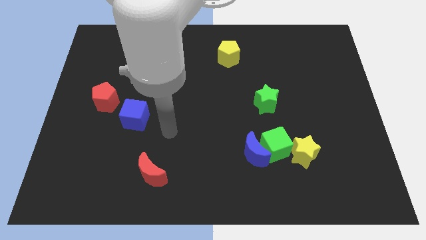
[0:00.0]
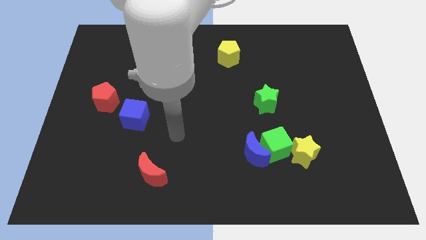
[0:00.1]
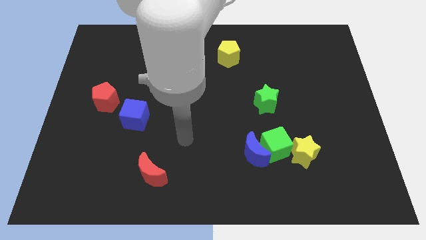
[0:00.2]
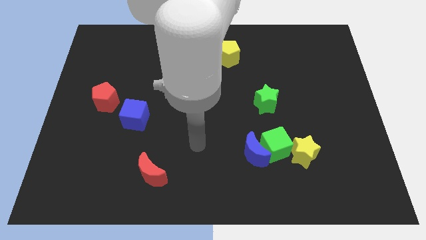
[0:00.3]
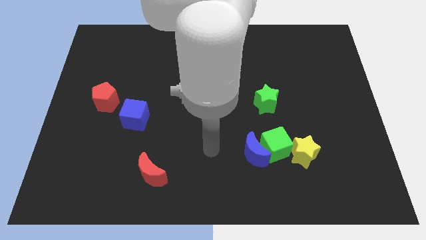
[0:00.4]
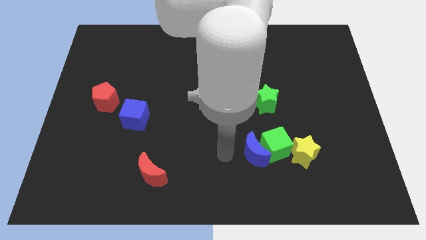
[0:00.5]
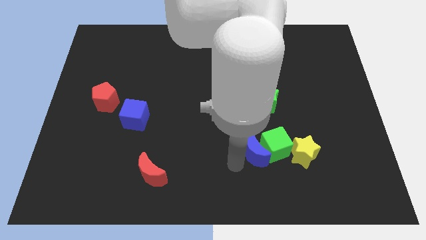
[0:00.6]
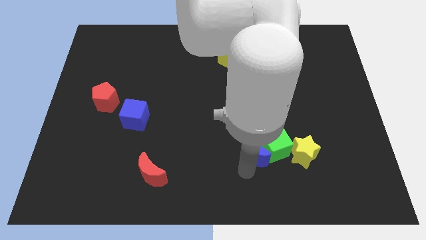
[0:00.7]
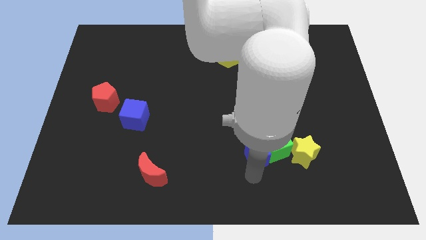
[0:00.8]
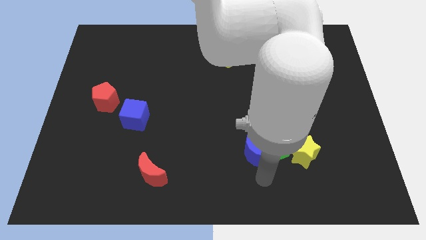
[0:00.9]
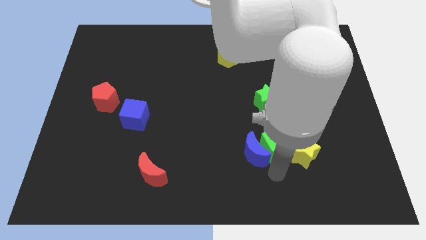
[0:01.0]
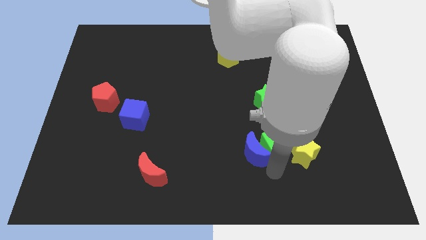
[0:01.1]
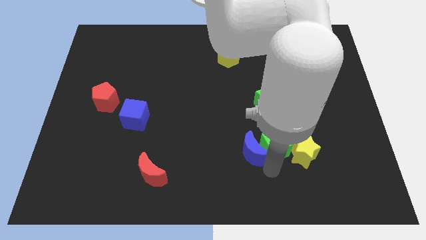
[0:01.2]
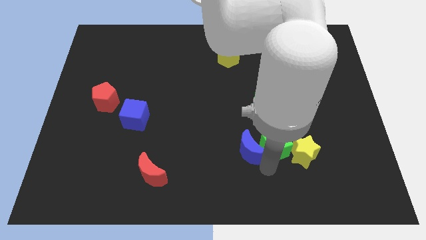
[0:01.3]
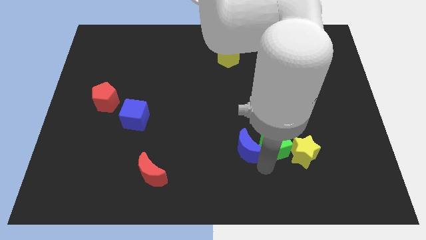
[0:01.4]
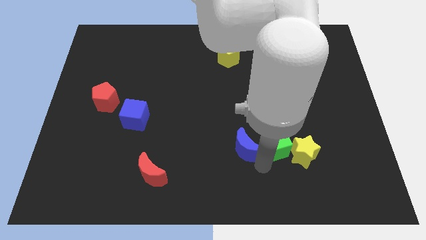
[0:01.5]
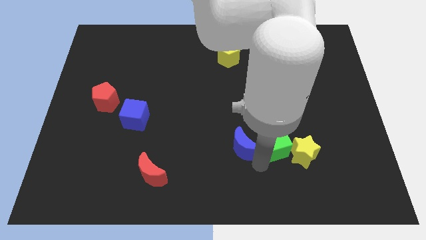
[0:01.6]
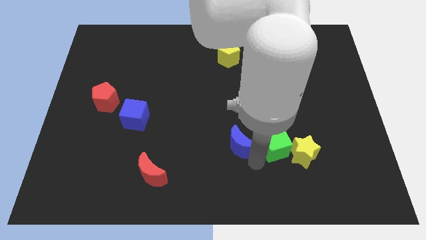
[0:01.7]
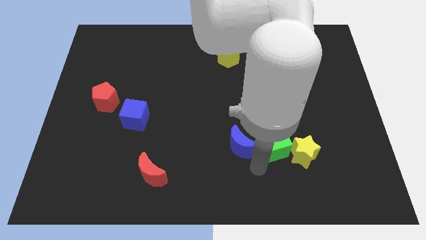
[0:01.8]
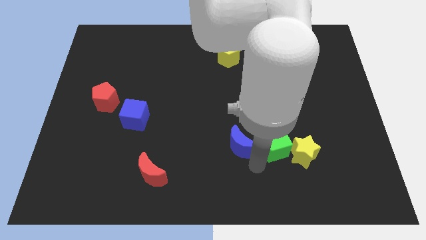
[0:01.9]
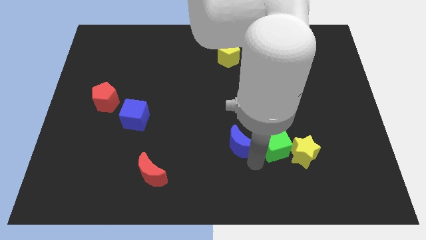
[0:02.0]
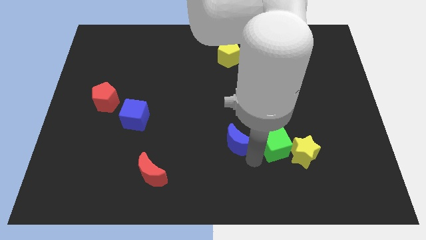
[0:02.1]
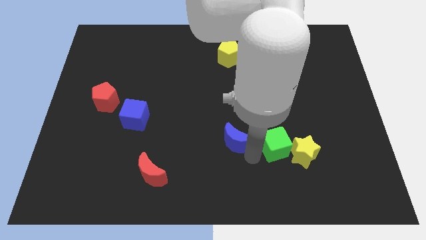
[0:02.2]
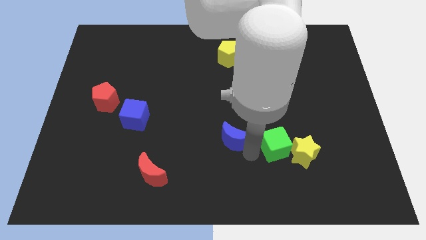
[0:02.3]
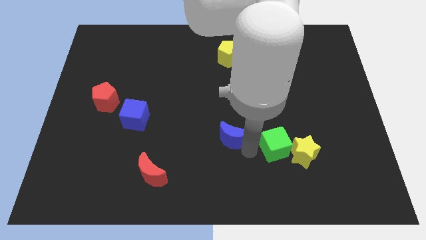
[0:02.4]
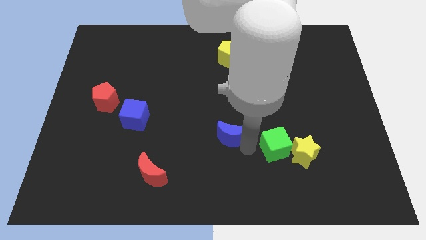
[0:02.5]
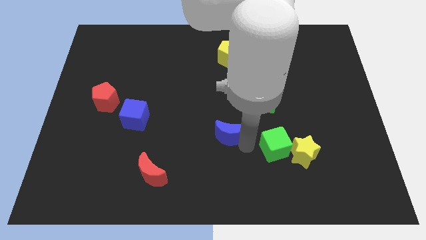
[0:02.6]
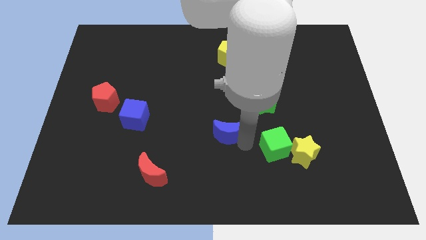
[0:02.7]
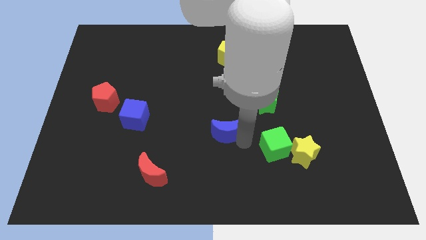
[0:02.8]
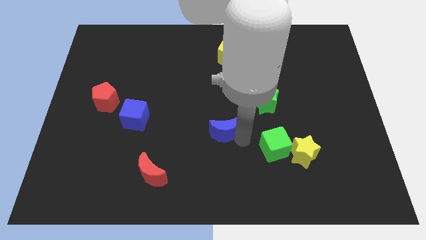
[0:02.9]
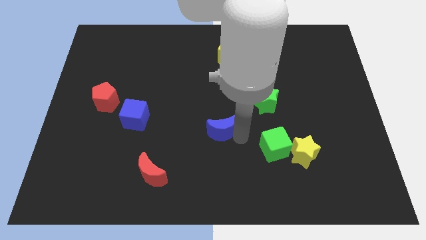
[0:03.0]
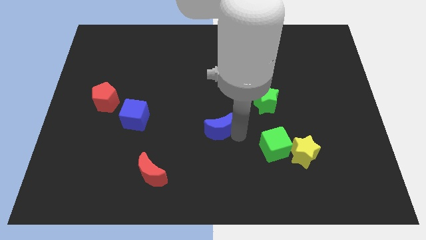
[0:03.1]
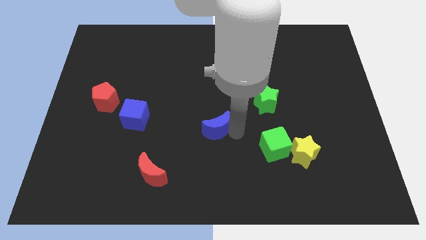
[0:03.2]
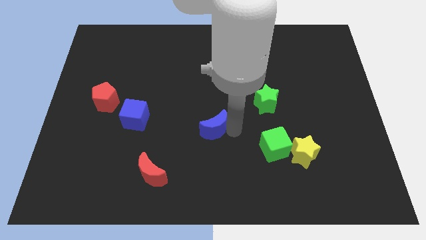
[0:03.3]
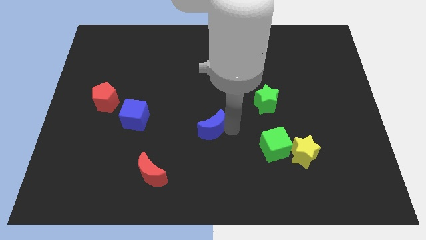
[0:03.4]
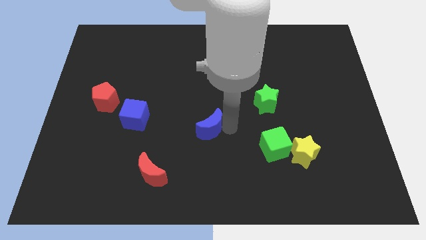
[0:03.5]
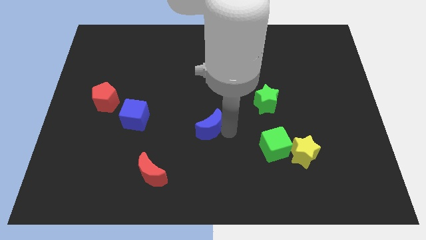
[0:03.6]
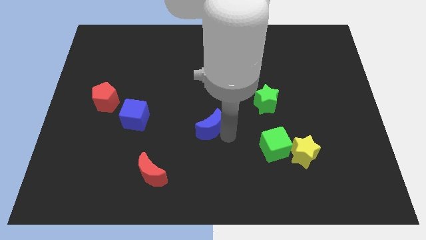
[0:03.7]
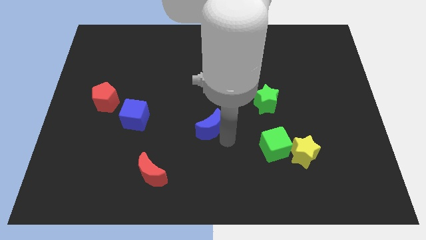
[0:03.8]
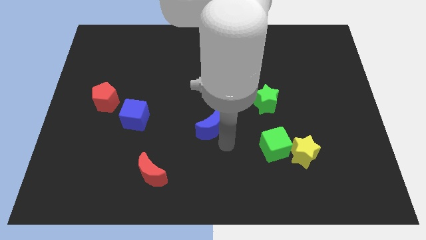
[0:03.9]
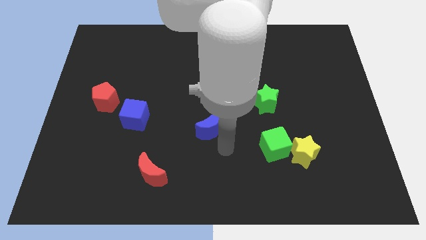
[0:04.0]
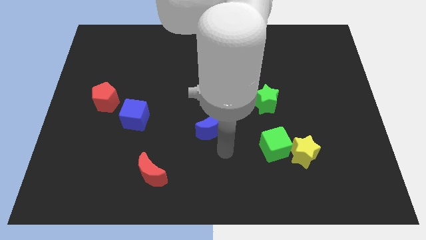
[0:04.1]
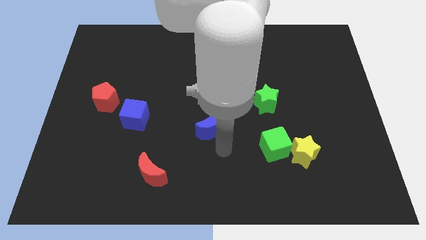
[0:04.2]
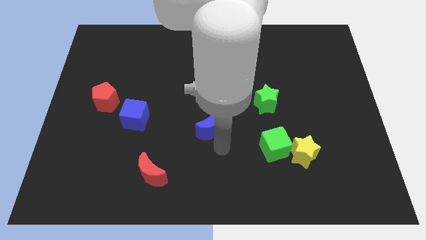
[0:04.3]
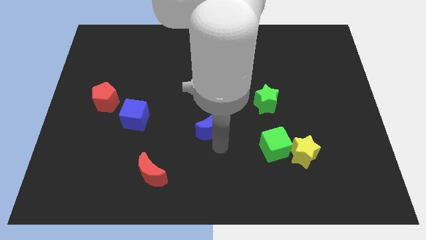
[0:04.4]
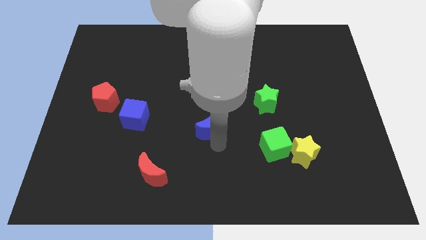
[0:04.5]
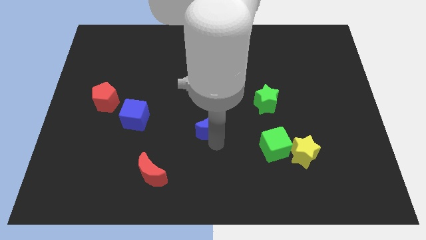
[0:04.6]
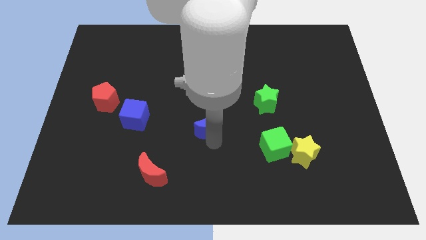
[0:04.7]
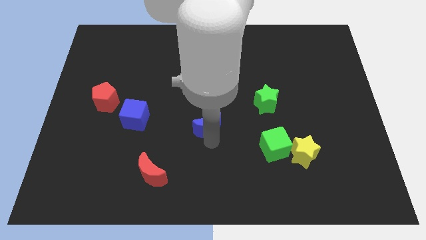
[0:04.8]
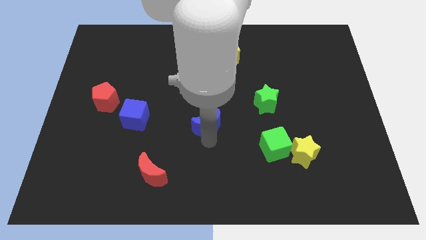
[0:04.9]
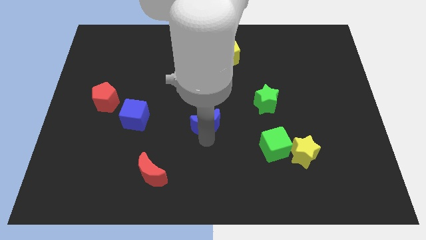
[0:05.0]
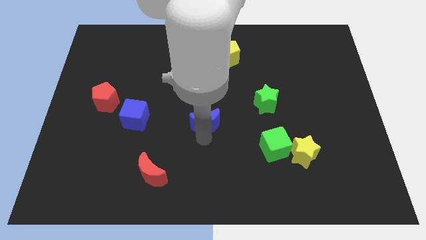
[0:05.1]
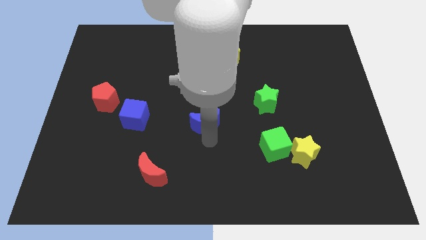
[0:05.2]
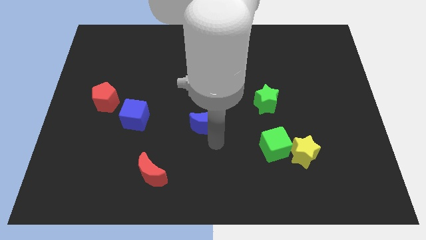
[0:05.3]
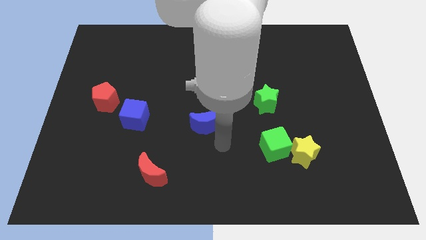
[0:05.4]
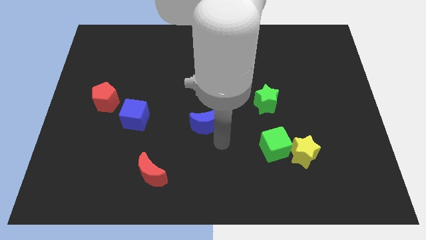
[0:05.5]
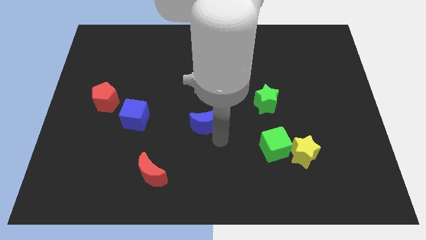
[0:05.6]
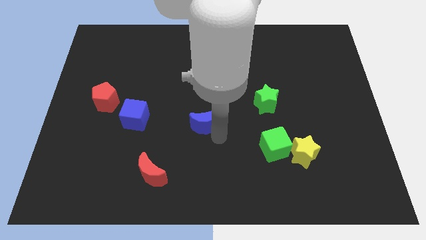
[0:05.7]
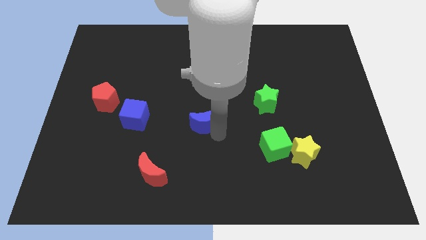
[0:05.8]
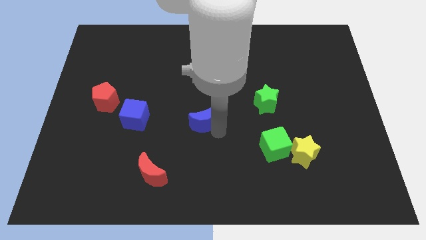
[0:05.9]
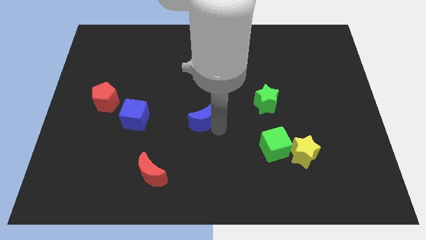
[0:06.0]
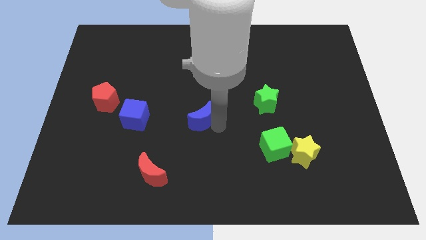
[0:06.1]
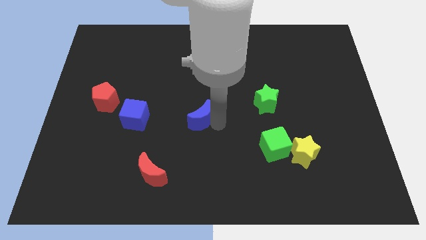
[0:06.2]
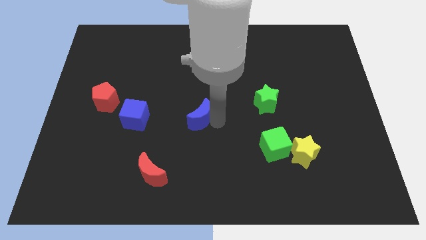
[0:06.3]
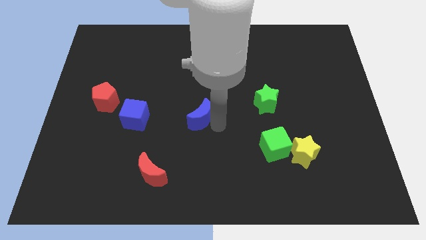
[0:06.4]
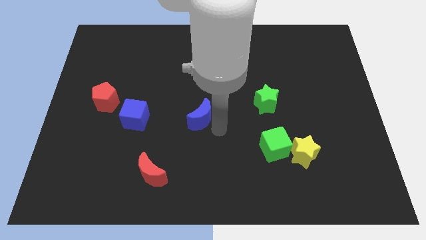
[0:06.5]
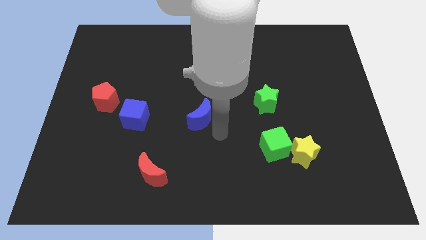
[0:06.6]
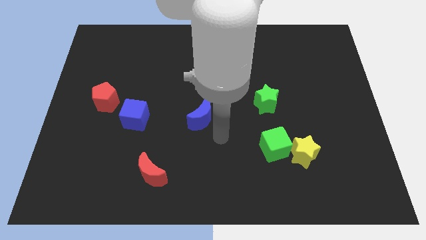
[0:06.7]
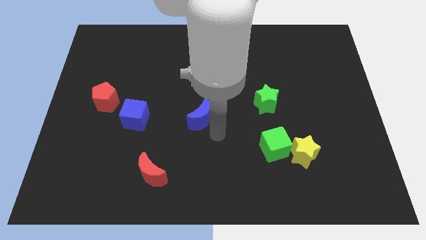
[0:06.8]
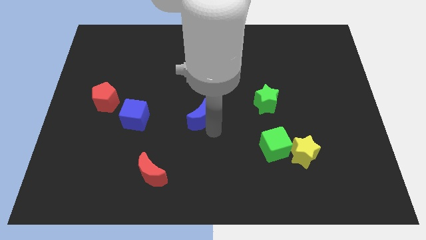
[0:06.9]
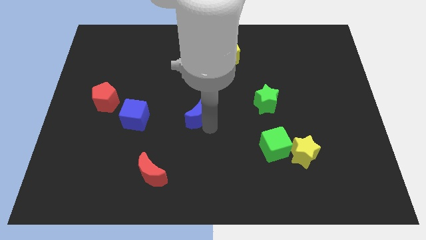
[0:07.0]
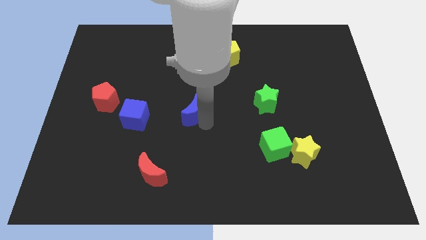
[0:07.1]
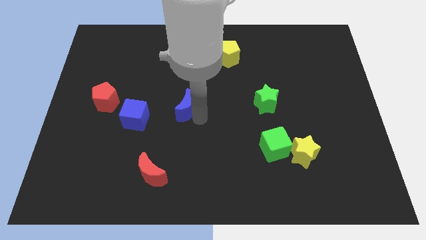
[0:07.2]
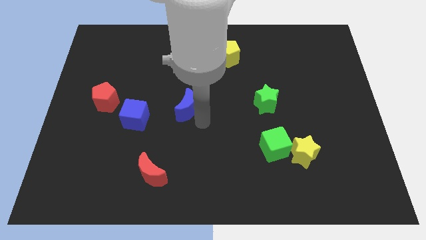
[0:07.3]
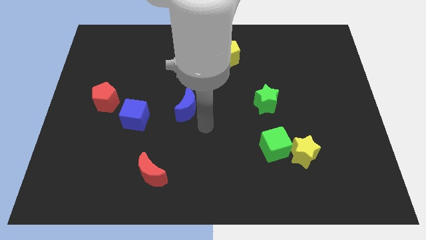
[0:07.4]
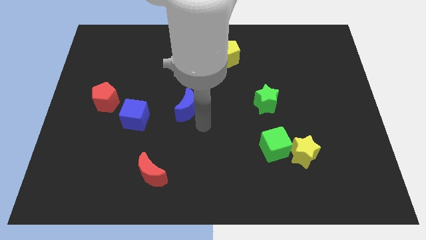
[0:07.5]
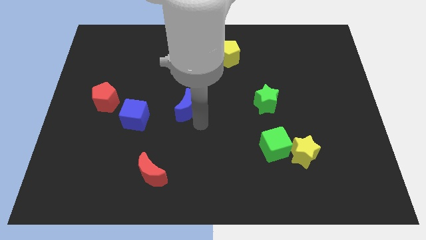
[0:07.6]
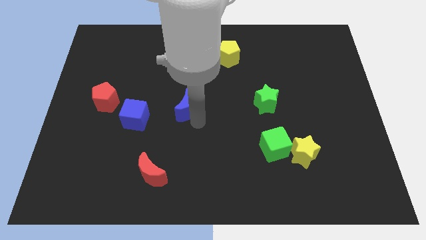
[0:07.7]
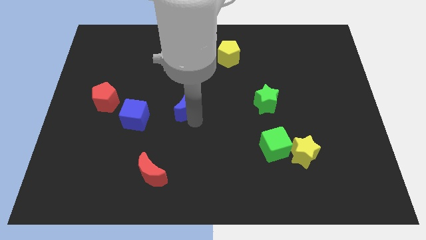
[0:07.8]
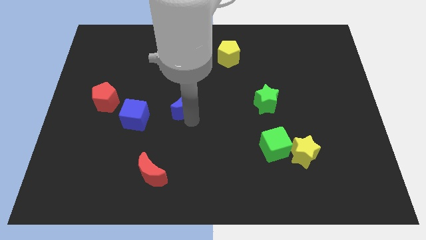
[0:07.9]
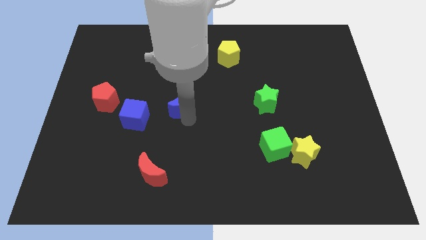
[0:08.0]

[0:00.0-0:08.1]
slide the blue moon diagonally upwards and left

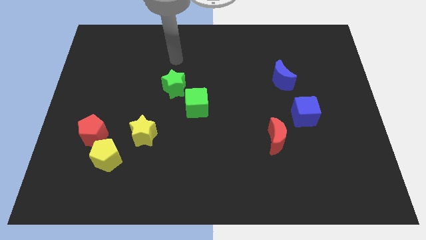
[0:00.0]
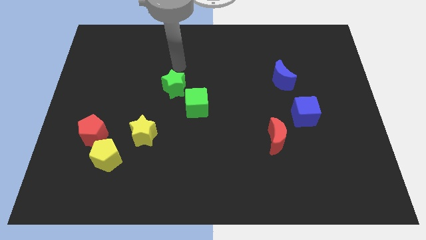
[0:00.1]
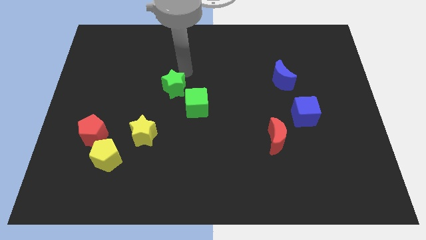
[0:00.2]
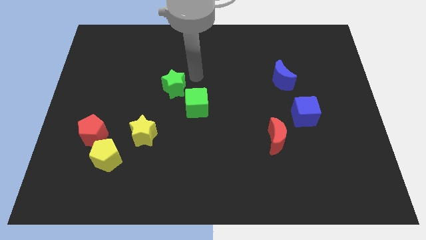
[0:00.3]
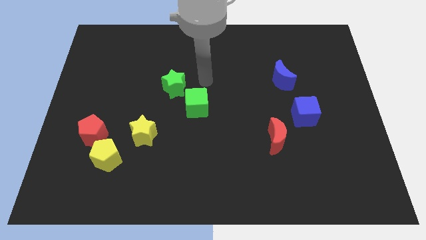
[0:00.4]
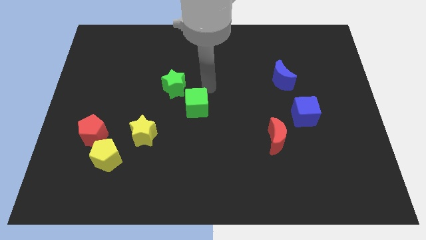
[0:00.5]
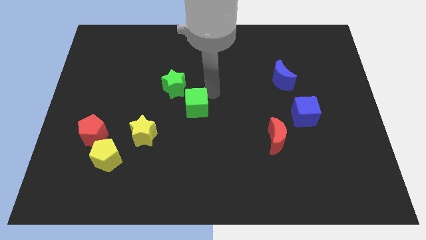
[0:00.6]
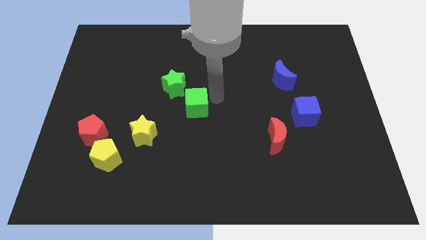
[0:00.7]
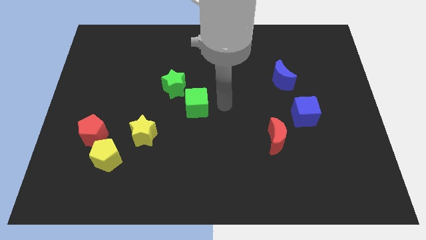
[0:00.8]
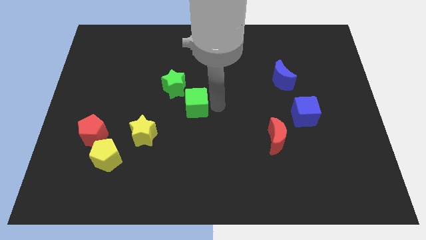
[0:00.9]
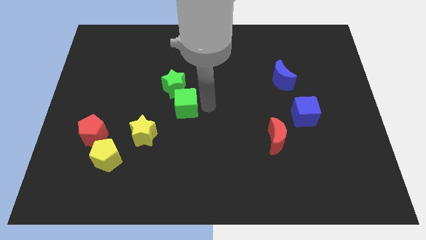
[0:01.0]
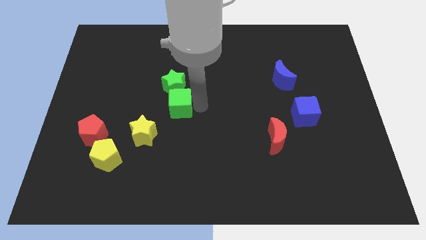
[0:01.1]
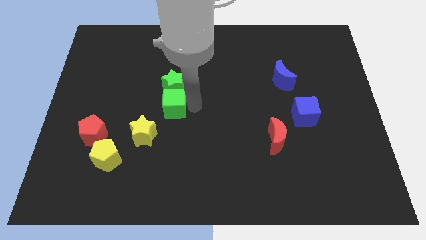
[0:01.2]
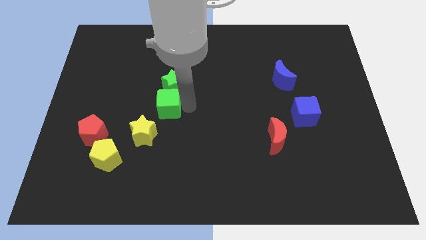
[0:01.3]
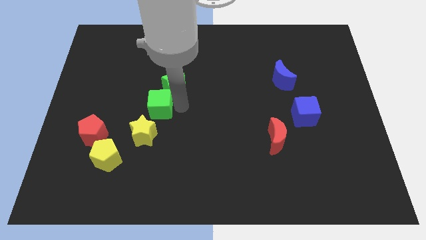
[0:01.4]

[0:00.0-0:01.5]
push the green cube to the left slightly
